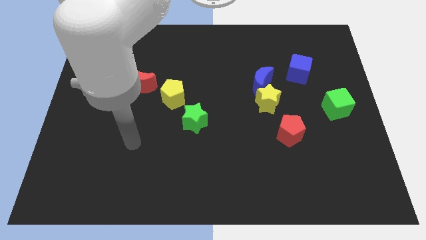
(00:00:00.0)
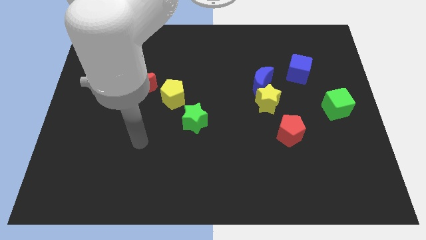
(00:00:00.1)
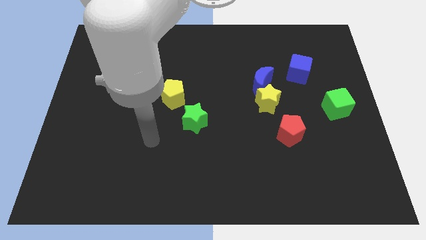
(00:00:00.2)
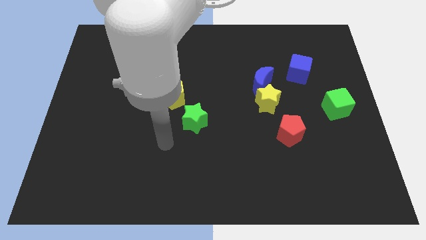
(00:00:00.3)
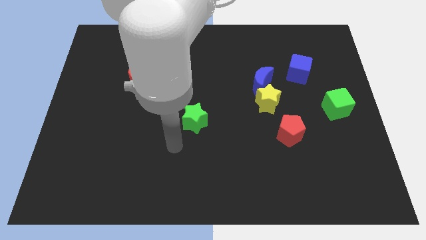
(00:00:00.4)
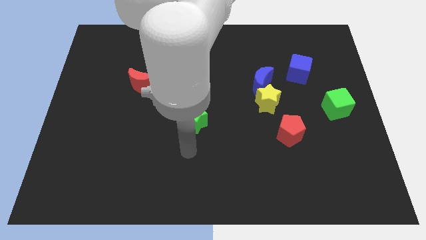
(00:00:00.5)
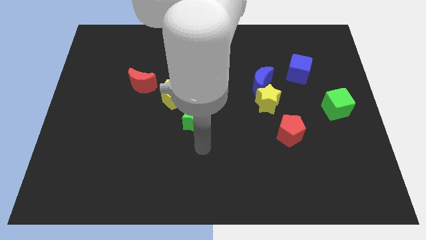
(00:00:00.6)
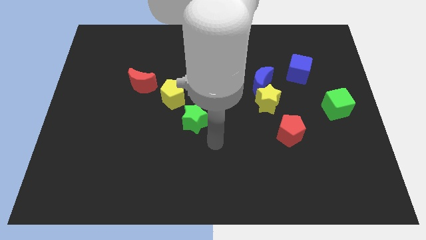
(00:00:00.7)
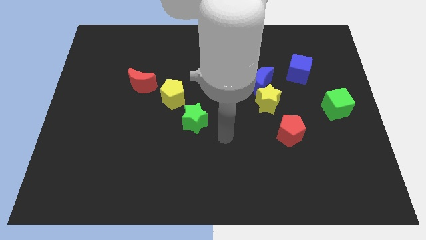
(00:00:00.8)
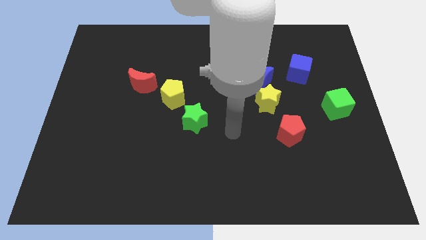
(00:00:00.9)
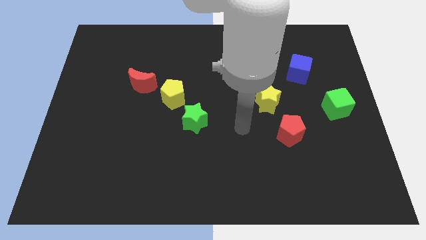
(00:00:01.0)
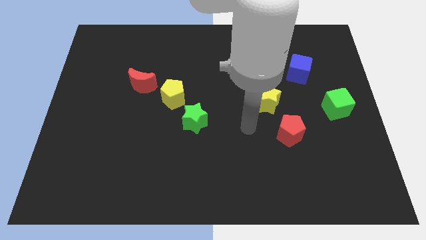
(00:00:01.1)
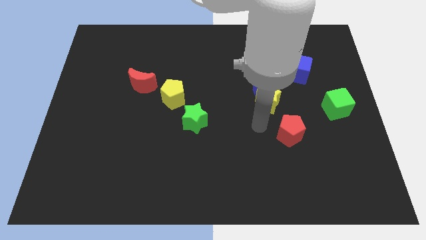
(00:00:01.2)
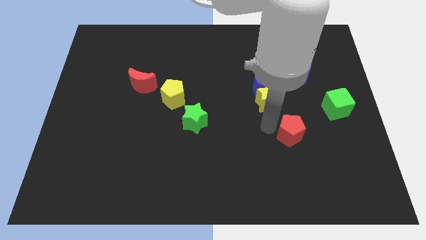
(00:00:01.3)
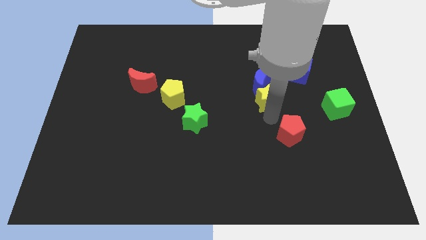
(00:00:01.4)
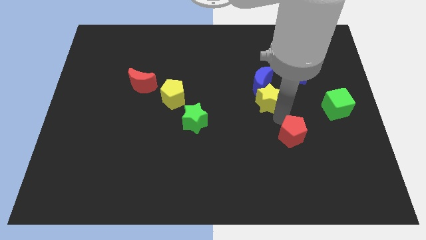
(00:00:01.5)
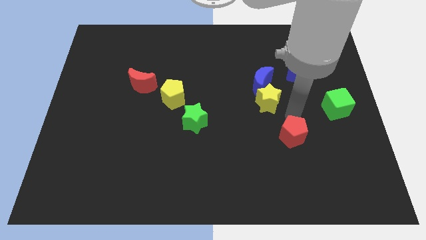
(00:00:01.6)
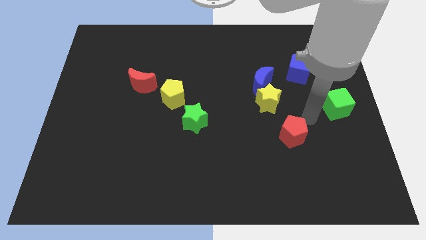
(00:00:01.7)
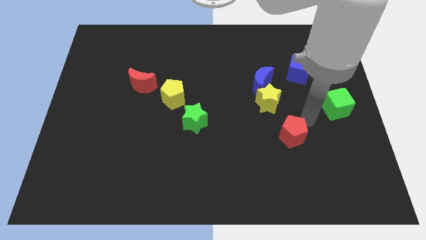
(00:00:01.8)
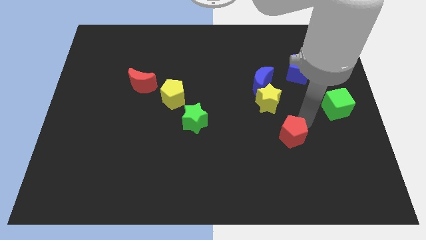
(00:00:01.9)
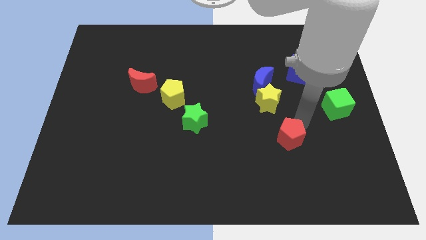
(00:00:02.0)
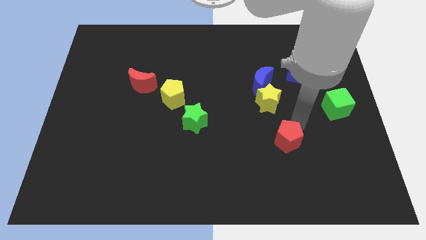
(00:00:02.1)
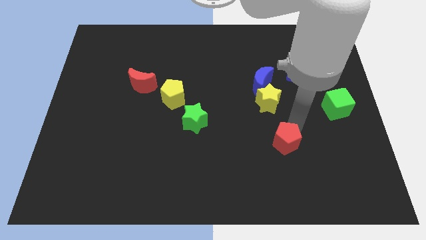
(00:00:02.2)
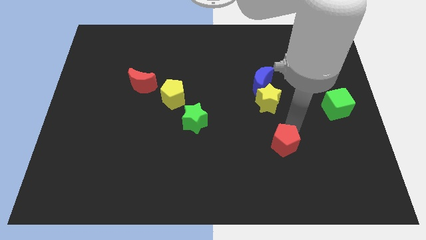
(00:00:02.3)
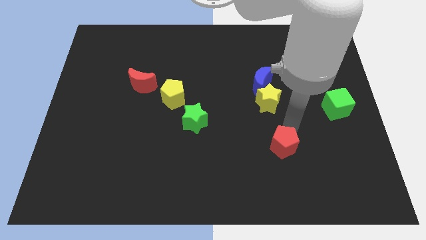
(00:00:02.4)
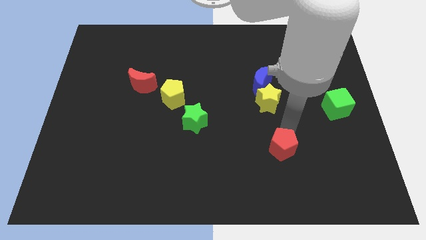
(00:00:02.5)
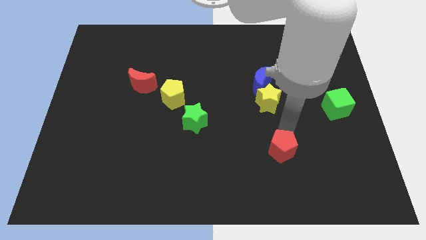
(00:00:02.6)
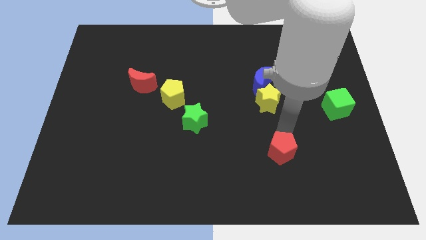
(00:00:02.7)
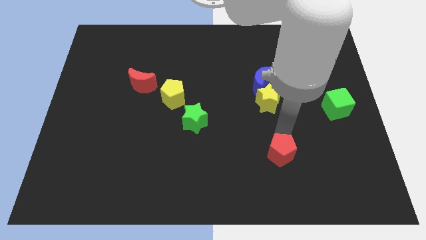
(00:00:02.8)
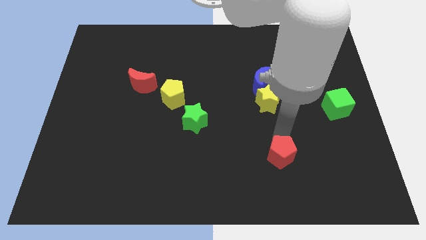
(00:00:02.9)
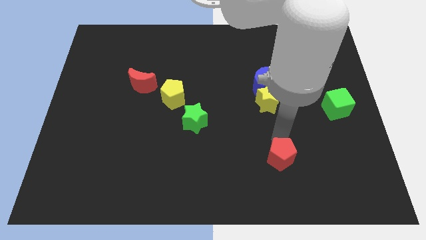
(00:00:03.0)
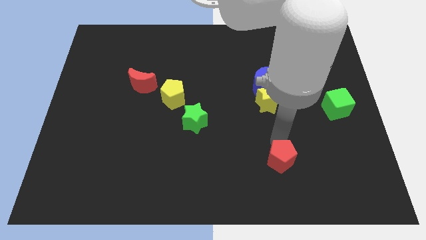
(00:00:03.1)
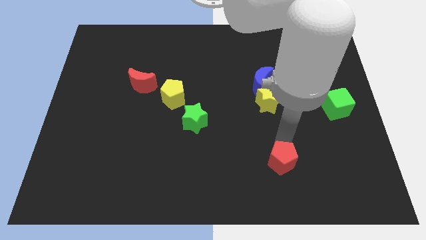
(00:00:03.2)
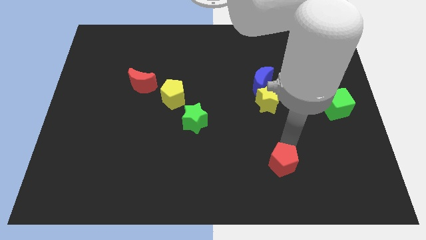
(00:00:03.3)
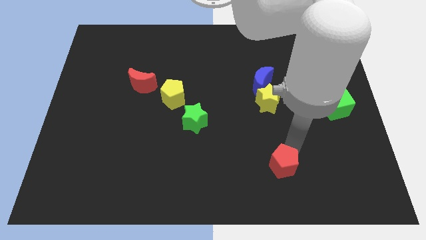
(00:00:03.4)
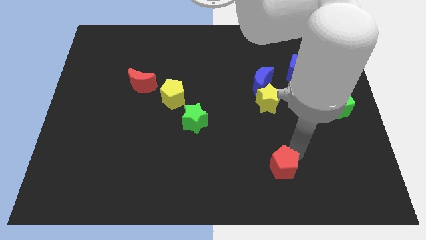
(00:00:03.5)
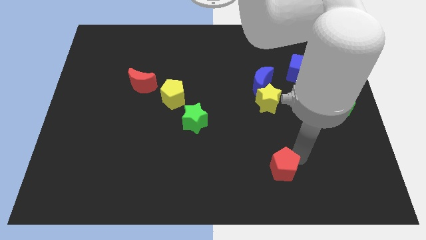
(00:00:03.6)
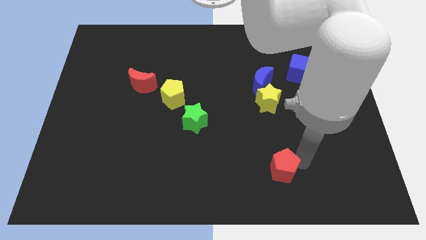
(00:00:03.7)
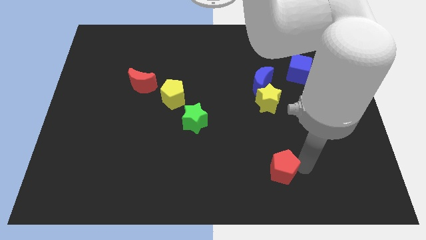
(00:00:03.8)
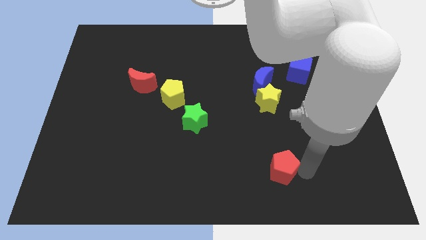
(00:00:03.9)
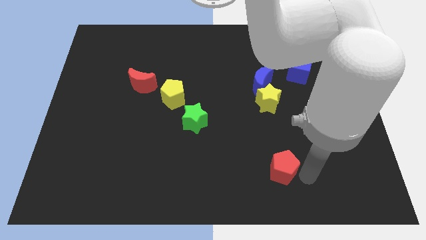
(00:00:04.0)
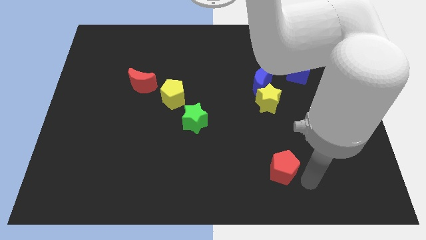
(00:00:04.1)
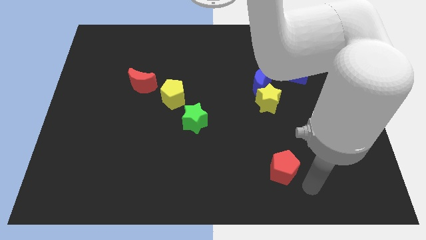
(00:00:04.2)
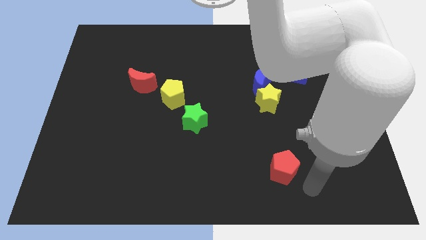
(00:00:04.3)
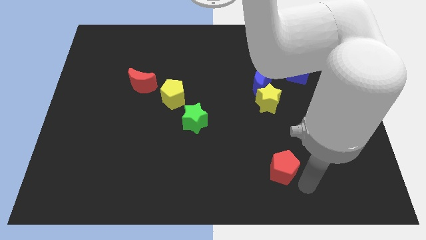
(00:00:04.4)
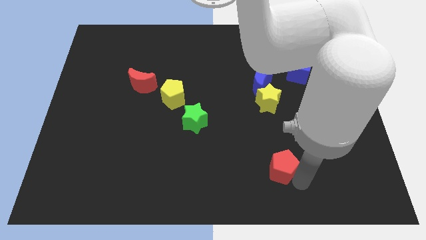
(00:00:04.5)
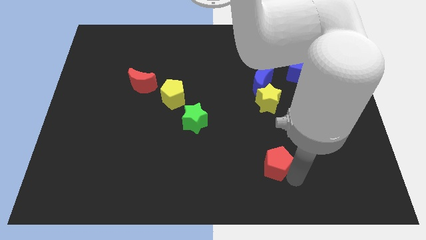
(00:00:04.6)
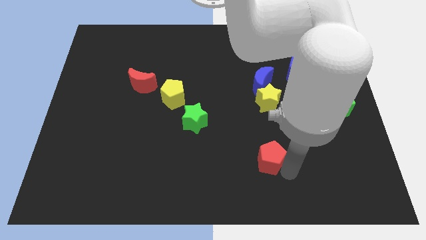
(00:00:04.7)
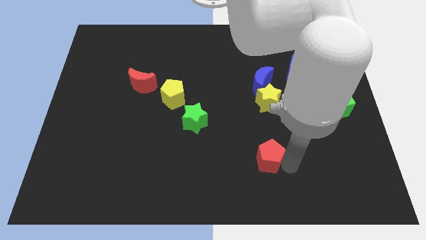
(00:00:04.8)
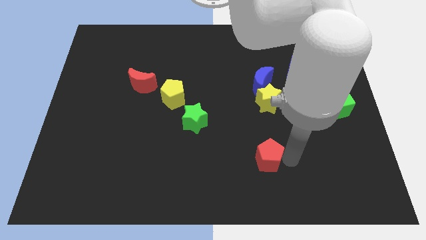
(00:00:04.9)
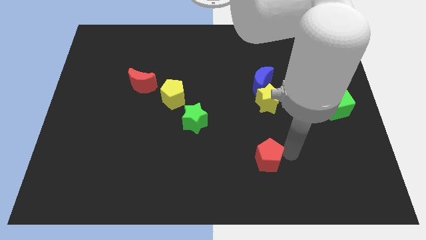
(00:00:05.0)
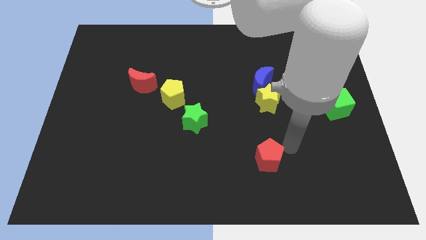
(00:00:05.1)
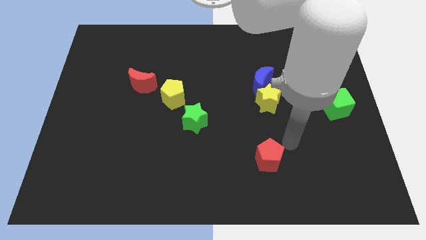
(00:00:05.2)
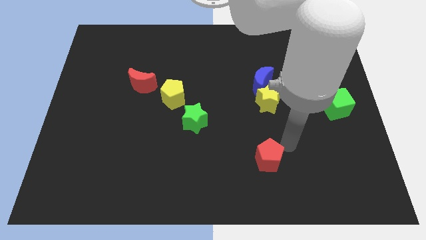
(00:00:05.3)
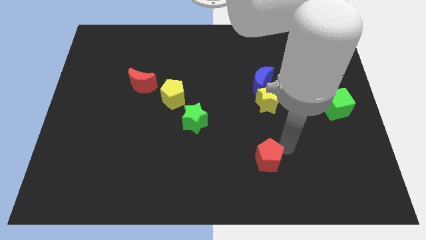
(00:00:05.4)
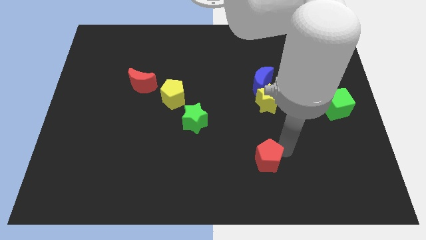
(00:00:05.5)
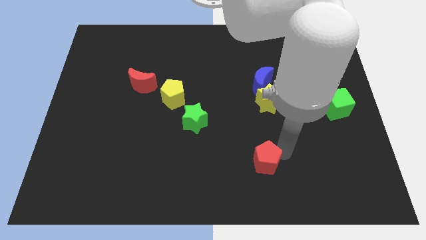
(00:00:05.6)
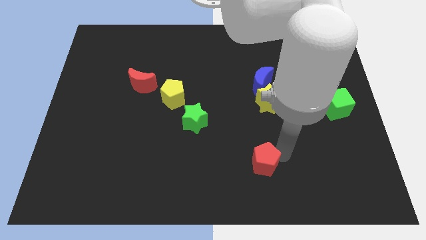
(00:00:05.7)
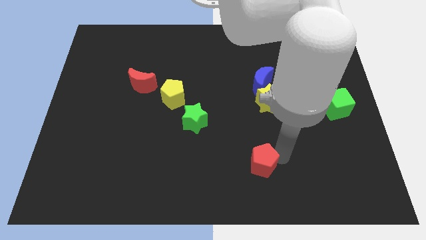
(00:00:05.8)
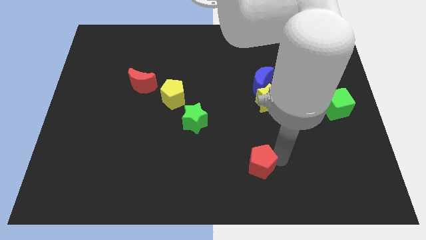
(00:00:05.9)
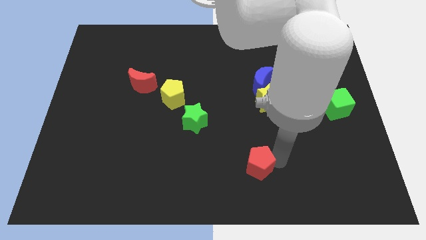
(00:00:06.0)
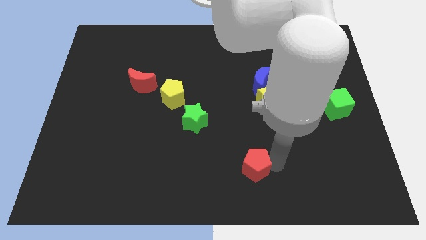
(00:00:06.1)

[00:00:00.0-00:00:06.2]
push the red pentagon to the bottom
